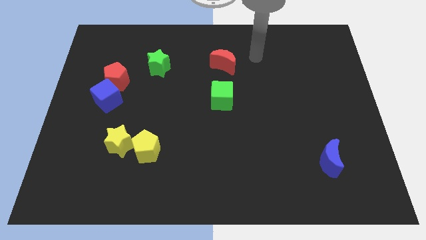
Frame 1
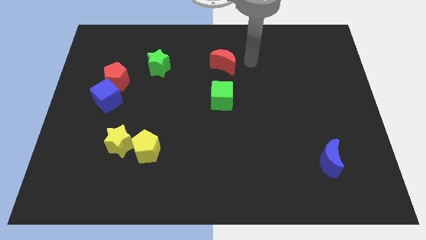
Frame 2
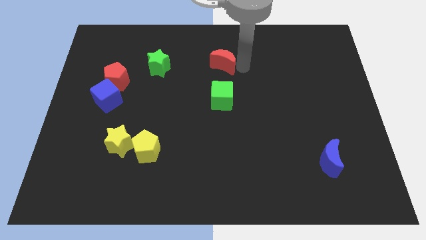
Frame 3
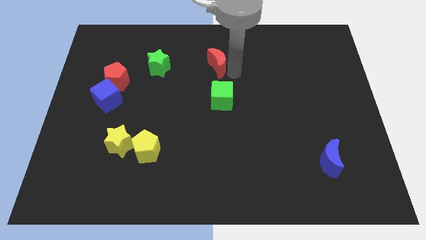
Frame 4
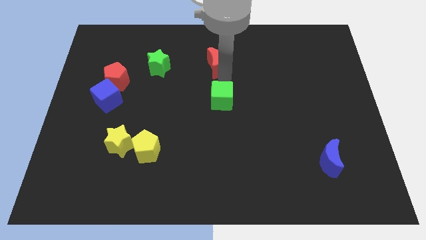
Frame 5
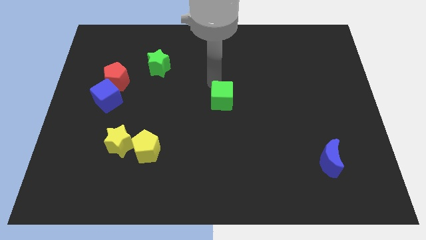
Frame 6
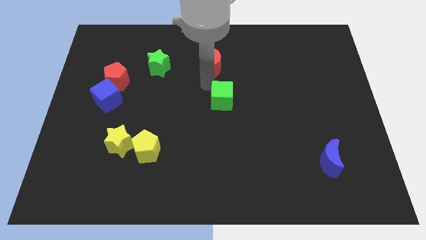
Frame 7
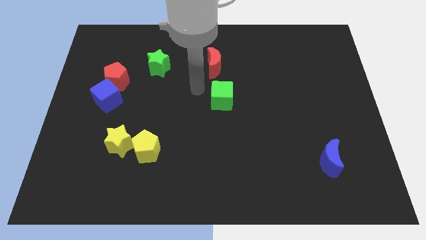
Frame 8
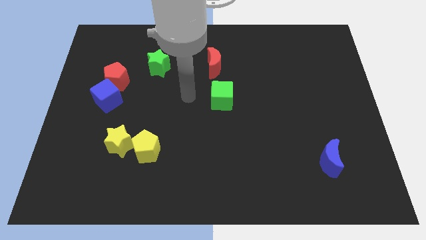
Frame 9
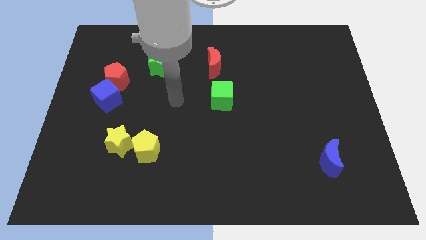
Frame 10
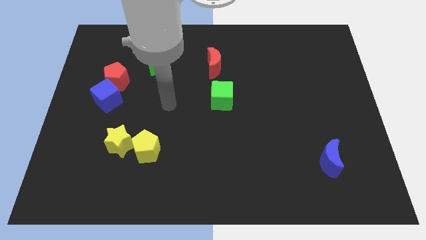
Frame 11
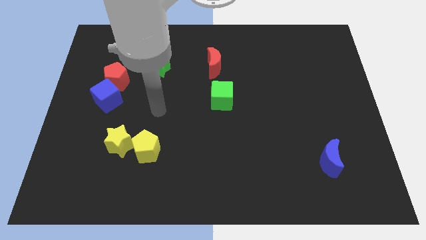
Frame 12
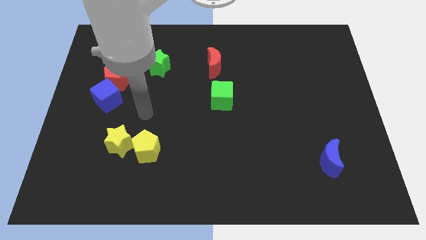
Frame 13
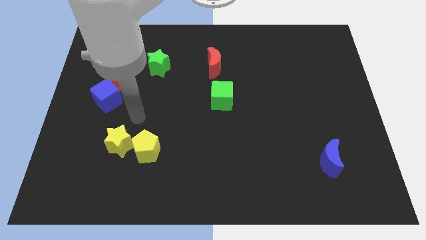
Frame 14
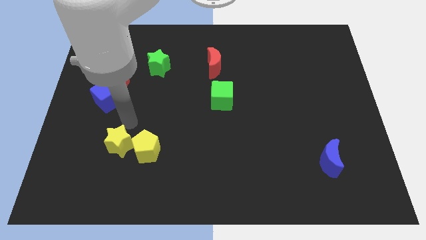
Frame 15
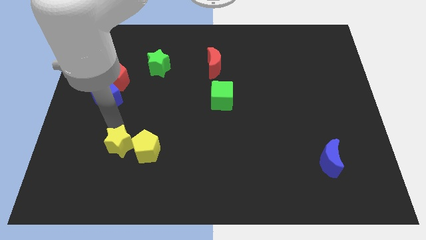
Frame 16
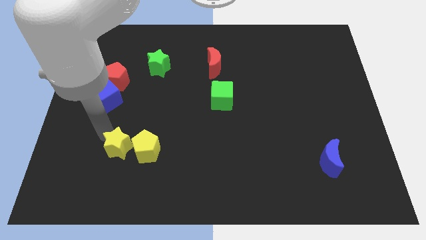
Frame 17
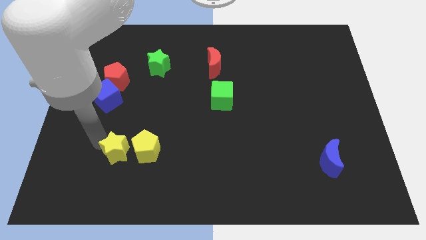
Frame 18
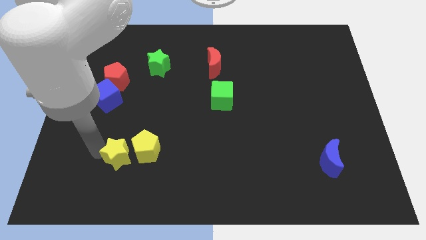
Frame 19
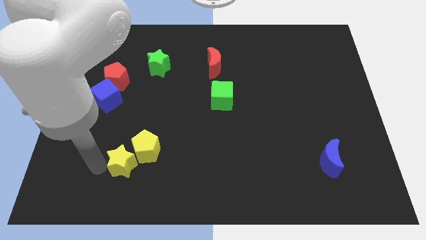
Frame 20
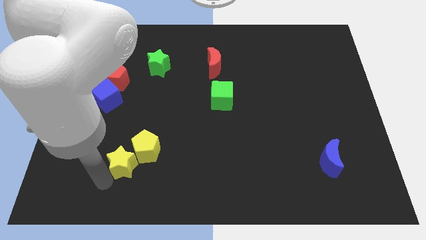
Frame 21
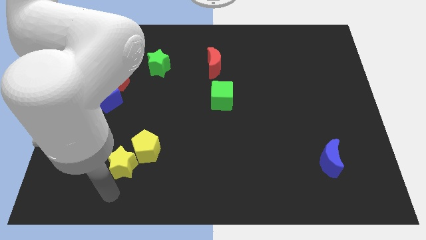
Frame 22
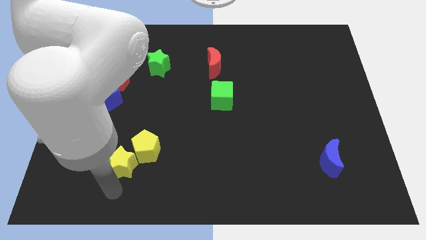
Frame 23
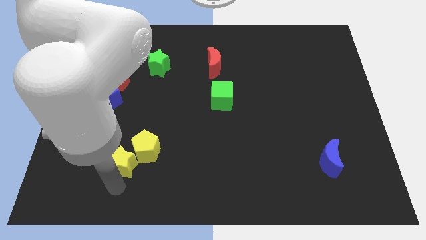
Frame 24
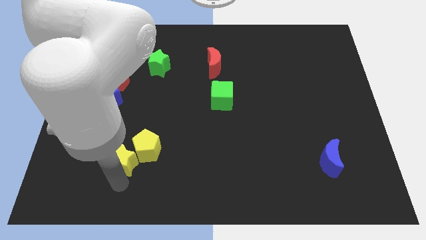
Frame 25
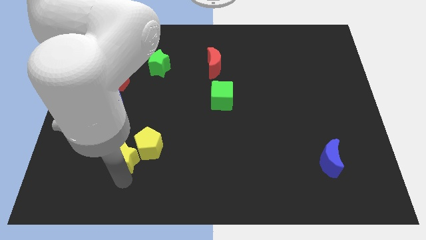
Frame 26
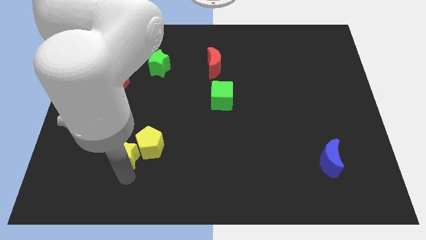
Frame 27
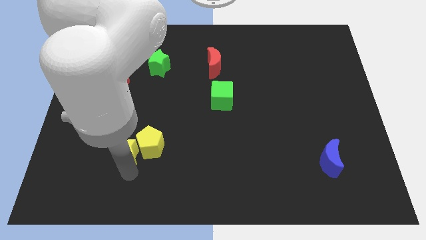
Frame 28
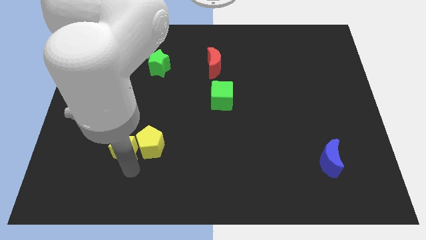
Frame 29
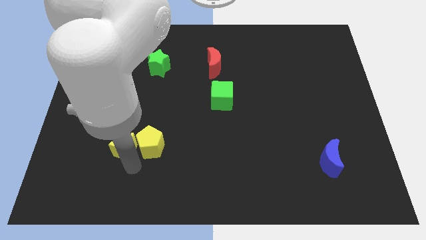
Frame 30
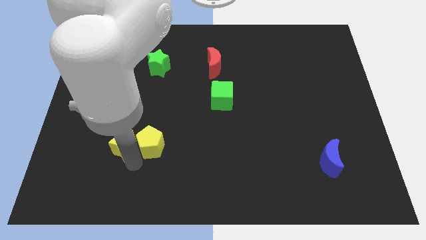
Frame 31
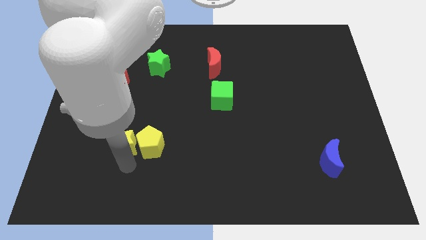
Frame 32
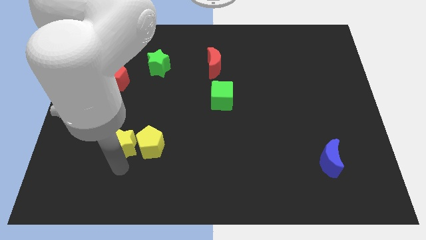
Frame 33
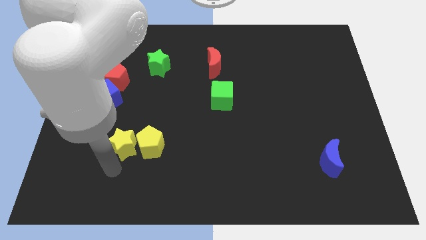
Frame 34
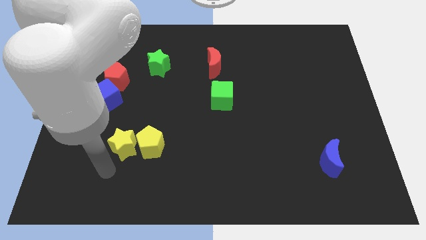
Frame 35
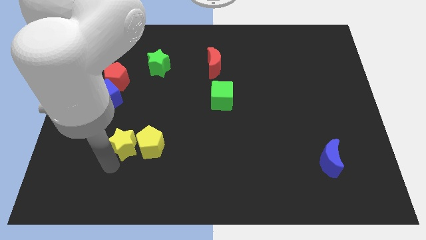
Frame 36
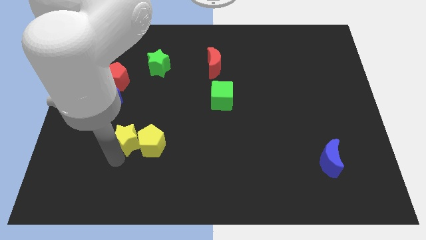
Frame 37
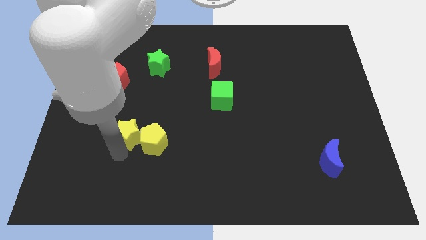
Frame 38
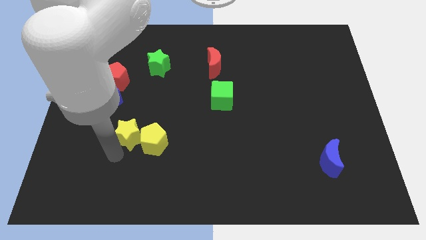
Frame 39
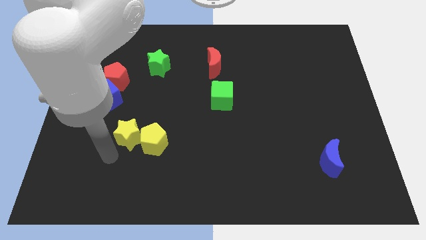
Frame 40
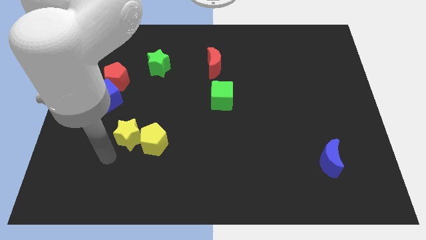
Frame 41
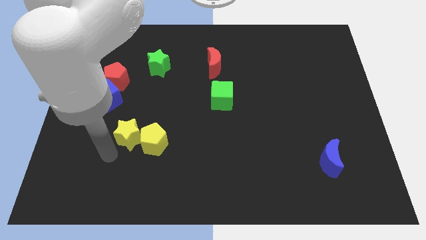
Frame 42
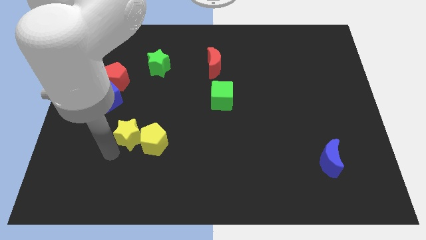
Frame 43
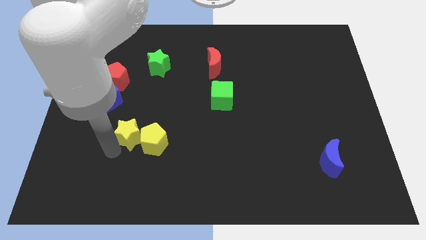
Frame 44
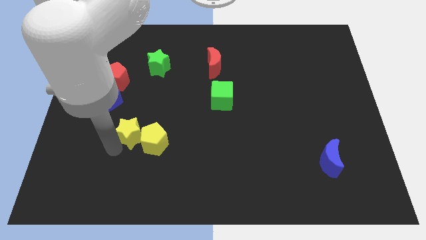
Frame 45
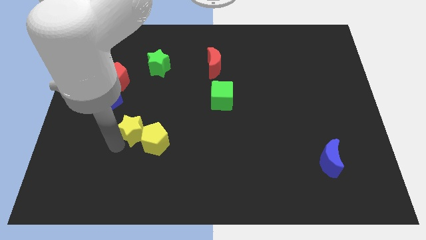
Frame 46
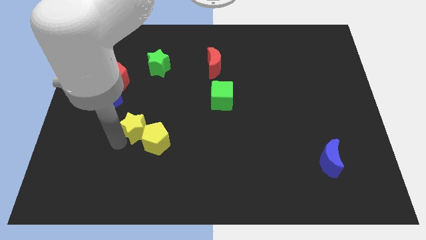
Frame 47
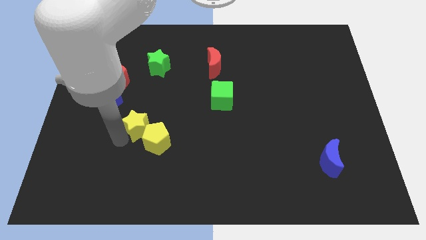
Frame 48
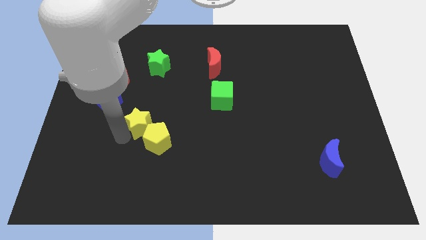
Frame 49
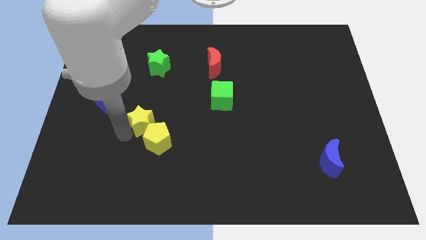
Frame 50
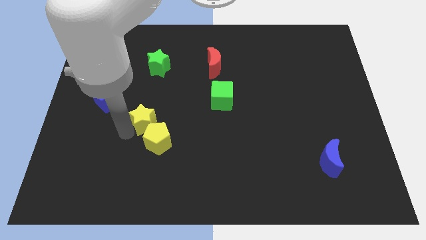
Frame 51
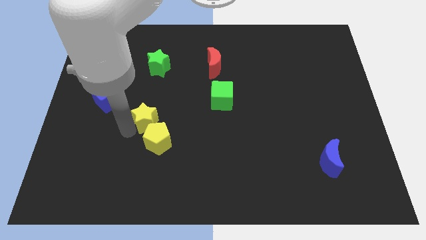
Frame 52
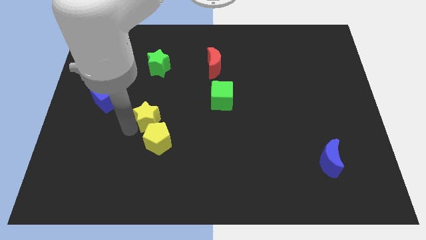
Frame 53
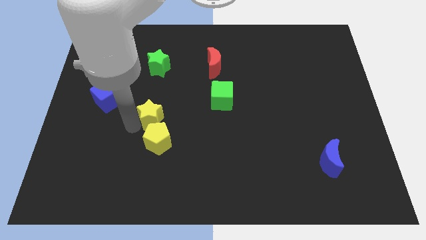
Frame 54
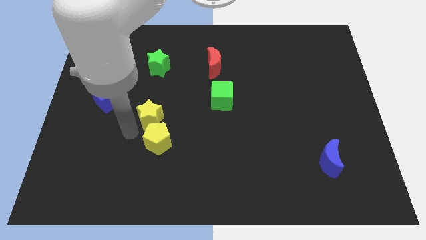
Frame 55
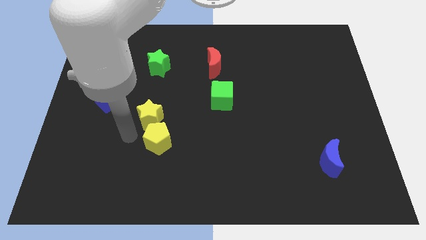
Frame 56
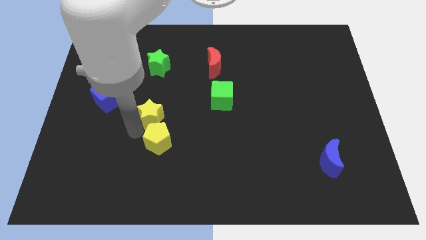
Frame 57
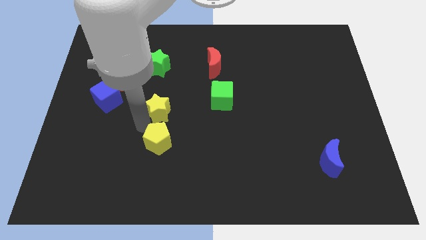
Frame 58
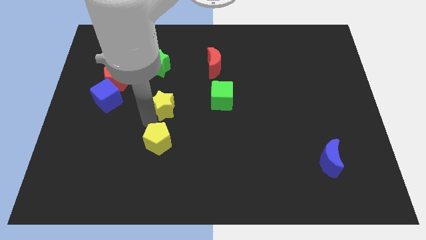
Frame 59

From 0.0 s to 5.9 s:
slide the yellow star to the left side of the green cube
